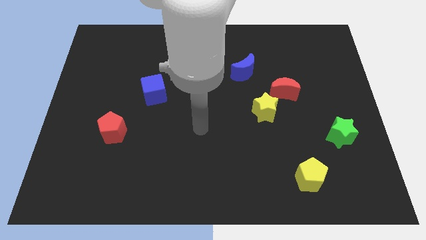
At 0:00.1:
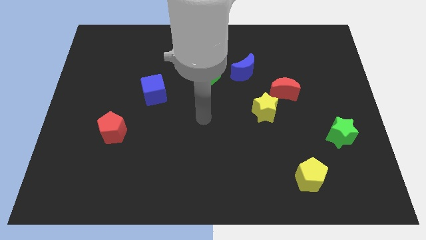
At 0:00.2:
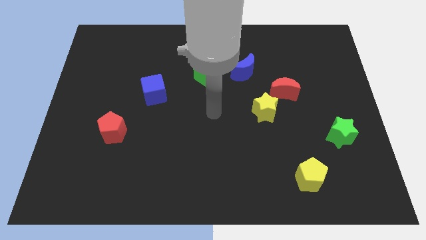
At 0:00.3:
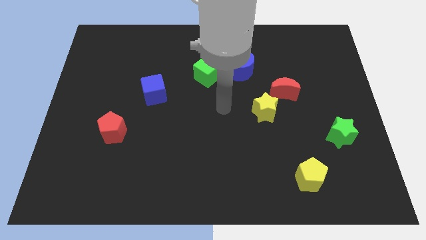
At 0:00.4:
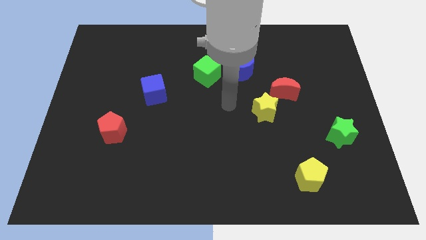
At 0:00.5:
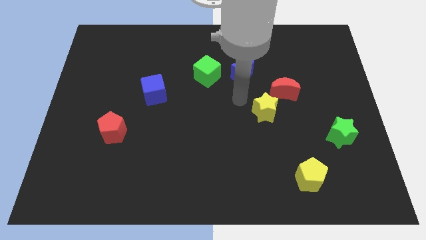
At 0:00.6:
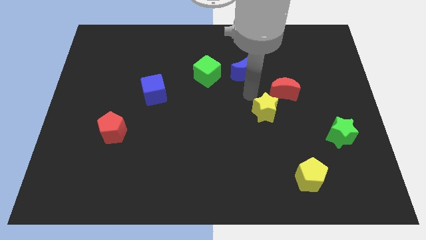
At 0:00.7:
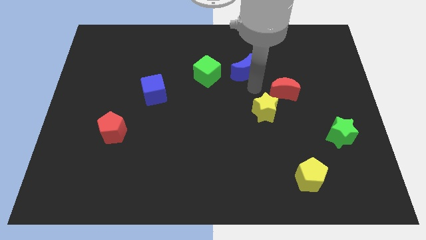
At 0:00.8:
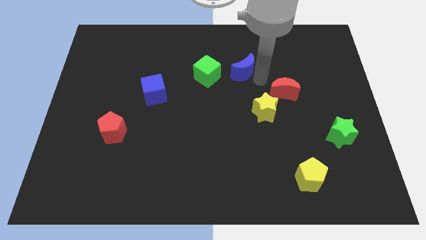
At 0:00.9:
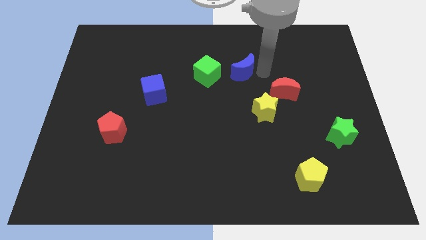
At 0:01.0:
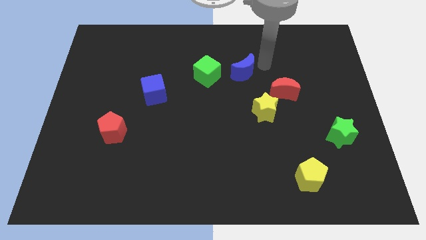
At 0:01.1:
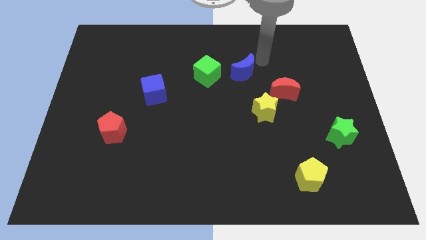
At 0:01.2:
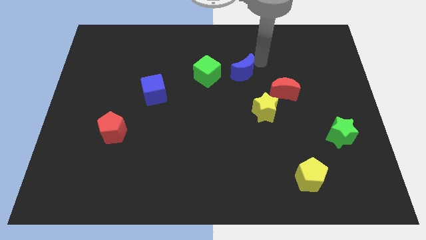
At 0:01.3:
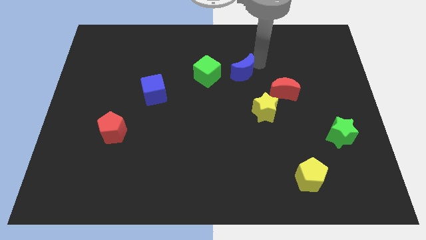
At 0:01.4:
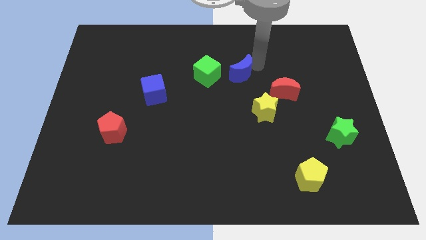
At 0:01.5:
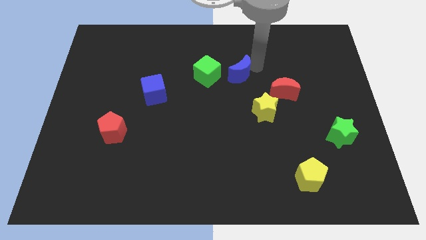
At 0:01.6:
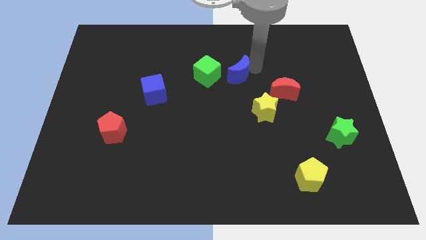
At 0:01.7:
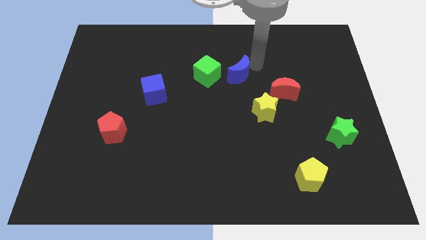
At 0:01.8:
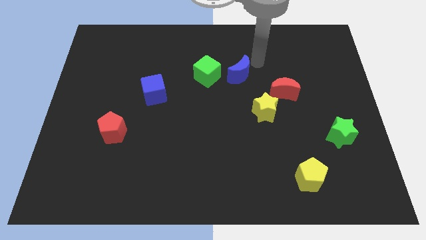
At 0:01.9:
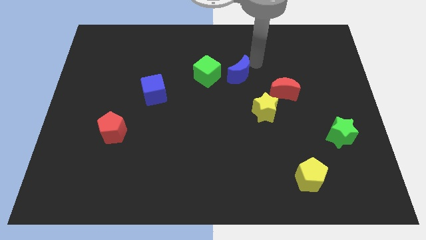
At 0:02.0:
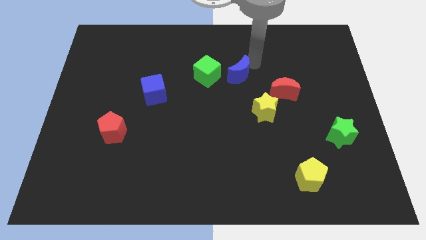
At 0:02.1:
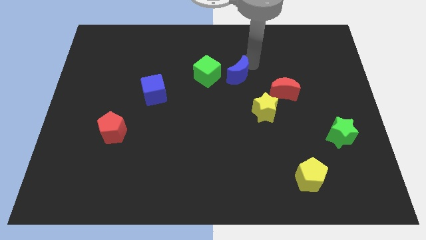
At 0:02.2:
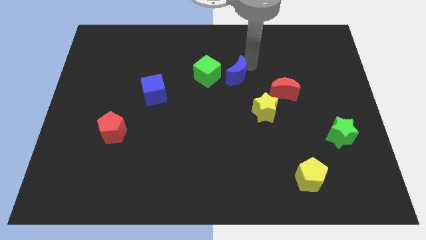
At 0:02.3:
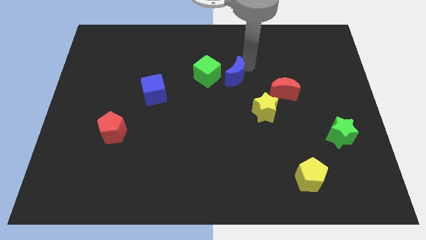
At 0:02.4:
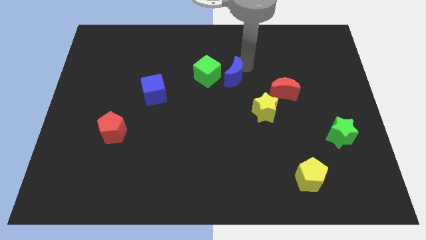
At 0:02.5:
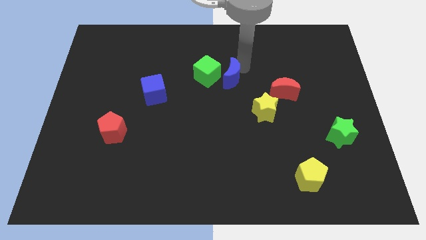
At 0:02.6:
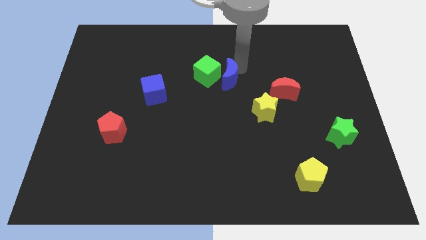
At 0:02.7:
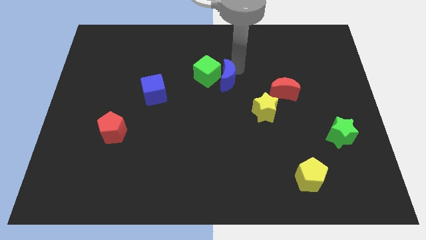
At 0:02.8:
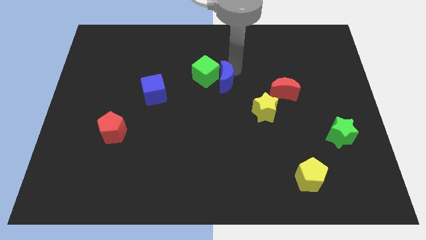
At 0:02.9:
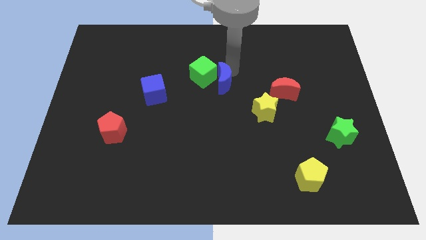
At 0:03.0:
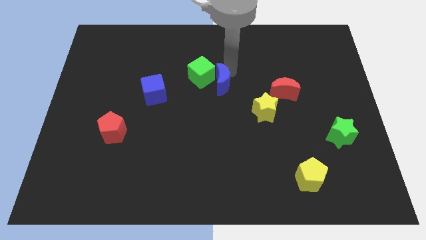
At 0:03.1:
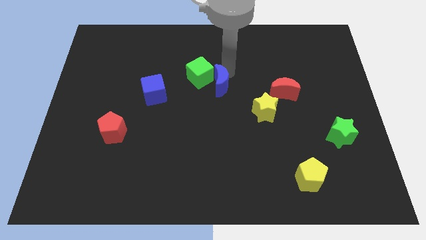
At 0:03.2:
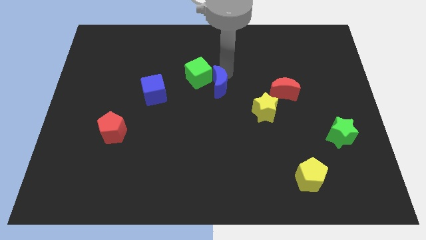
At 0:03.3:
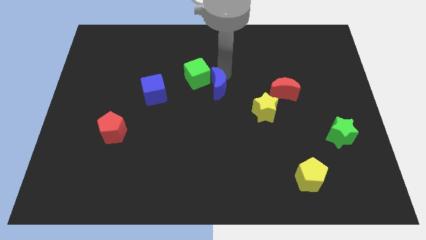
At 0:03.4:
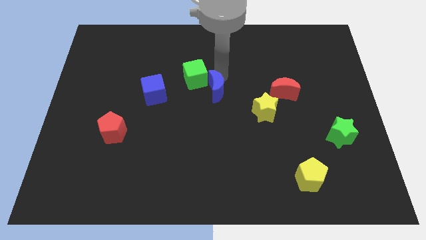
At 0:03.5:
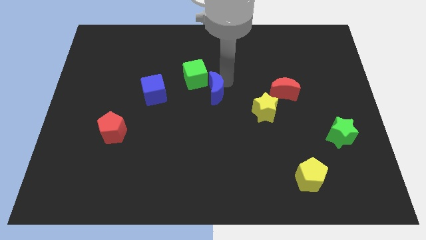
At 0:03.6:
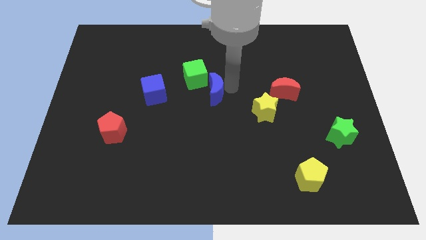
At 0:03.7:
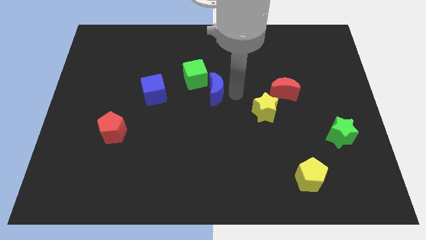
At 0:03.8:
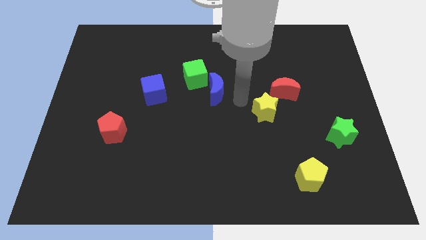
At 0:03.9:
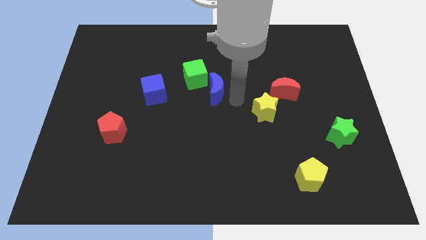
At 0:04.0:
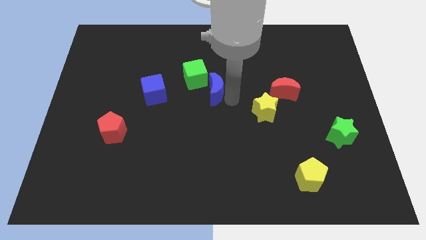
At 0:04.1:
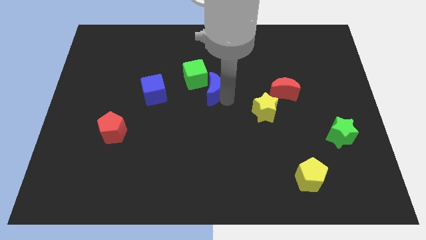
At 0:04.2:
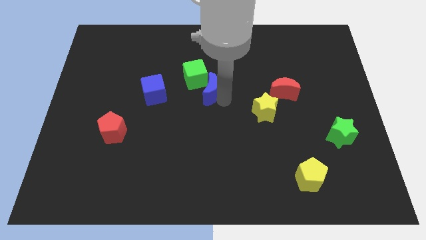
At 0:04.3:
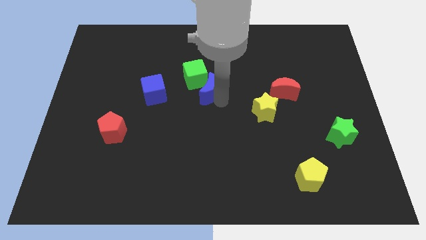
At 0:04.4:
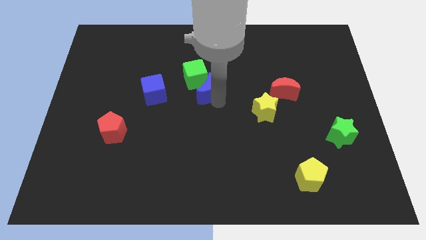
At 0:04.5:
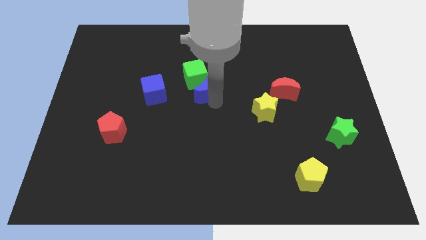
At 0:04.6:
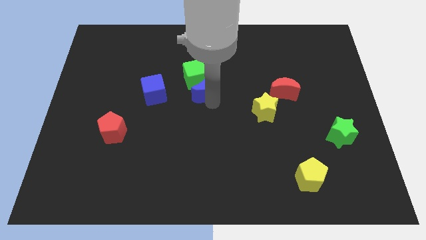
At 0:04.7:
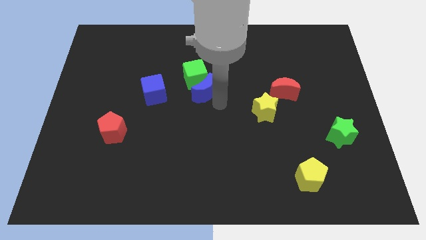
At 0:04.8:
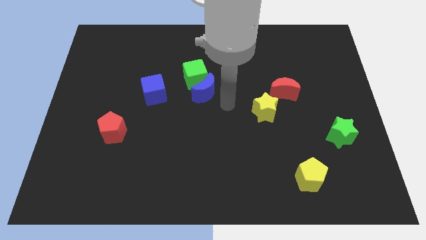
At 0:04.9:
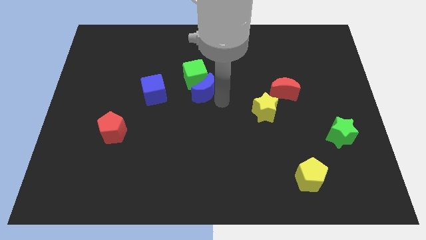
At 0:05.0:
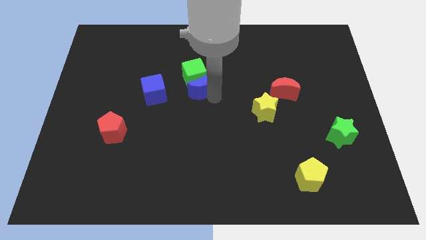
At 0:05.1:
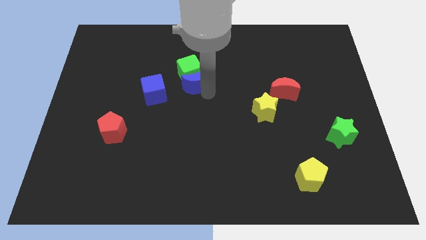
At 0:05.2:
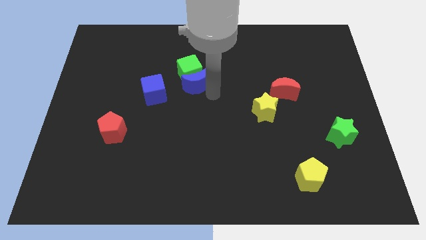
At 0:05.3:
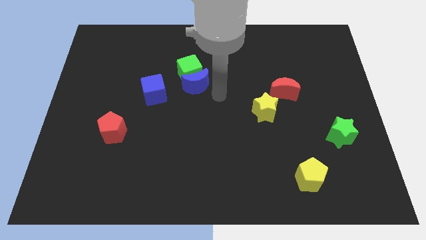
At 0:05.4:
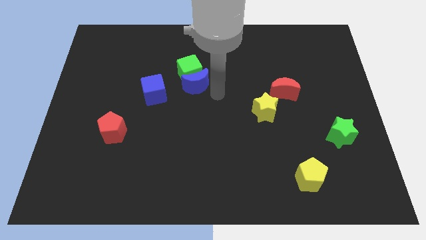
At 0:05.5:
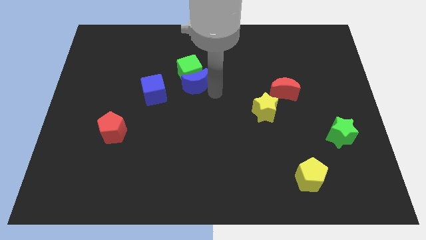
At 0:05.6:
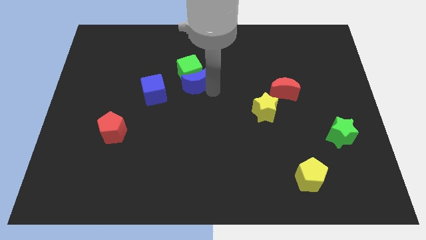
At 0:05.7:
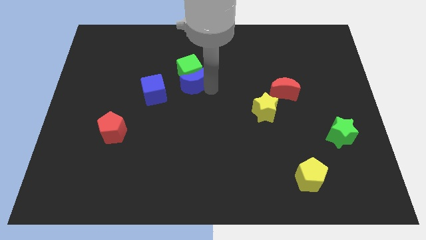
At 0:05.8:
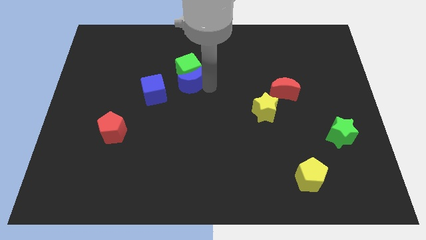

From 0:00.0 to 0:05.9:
push the blue moon diagonally up and to the right of the blue cube

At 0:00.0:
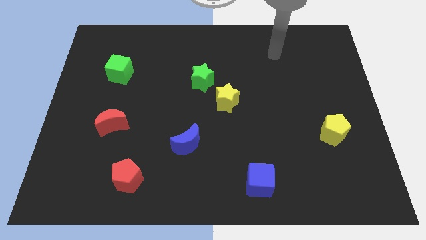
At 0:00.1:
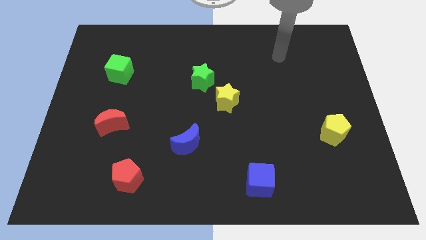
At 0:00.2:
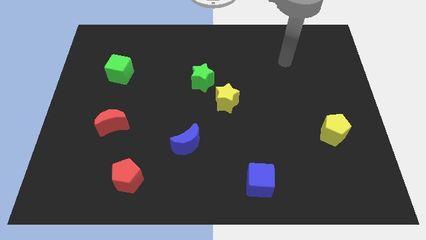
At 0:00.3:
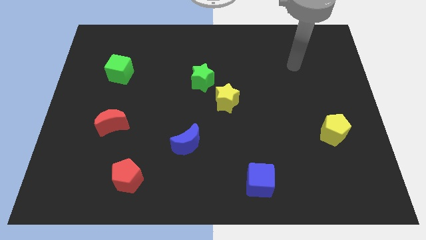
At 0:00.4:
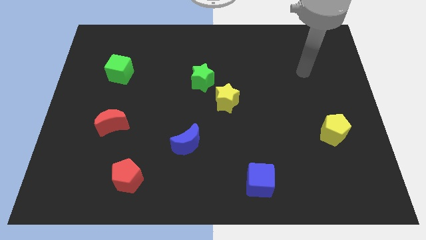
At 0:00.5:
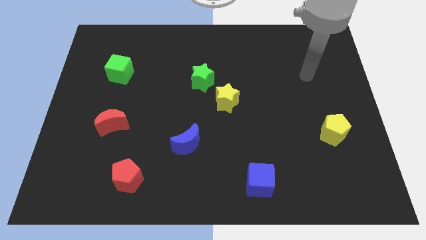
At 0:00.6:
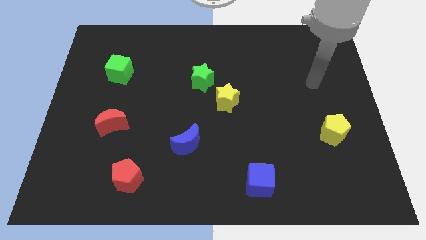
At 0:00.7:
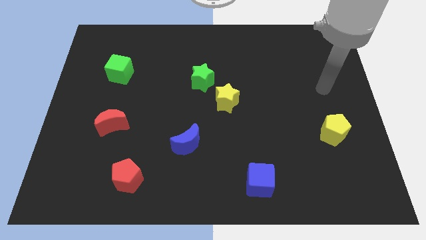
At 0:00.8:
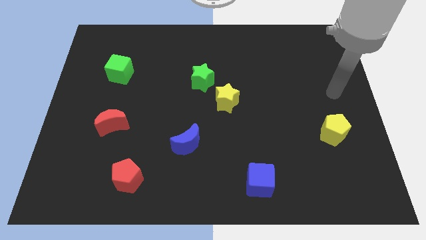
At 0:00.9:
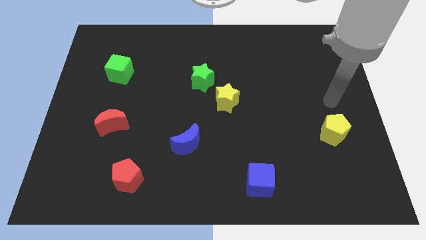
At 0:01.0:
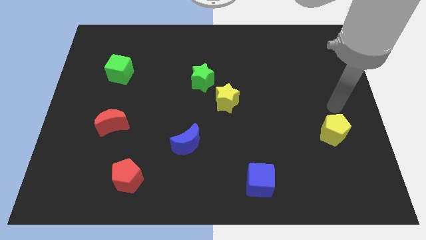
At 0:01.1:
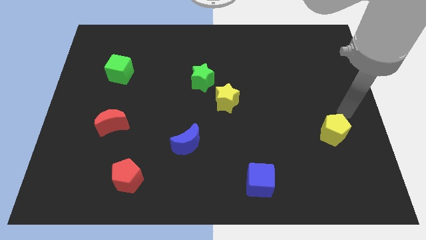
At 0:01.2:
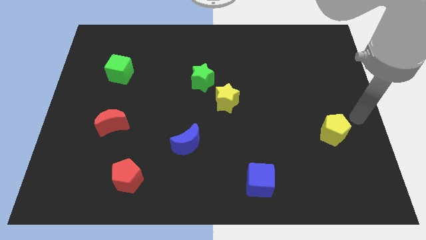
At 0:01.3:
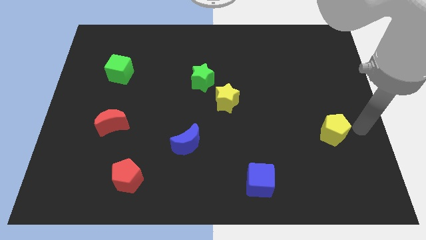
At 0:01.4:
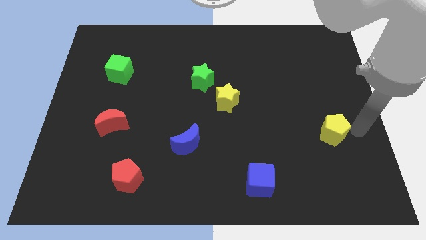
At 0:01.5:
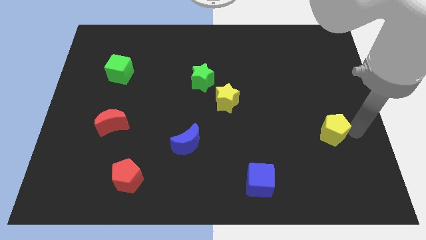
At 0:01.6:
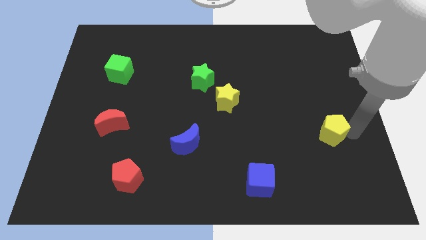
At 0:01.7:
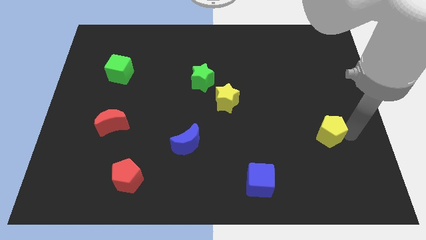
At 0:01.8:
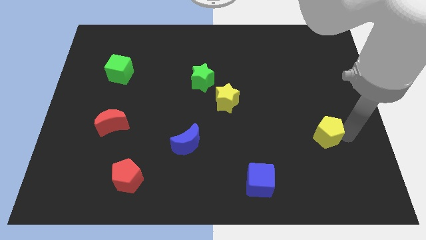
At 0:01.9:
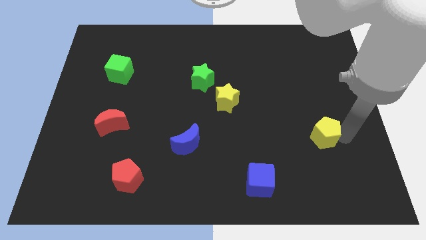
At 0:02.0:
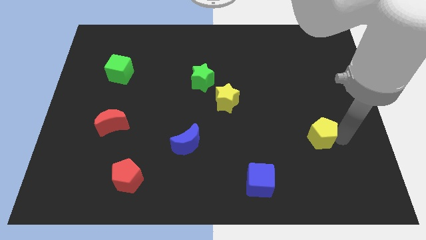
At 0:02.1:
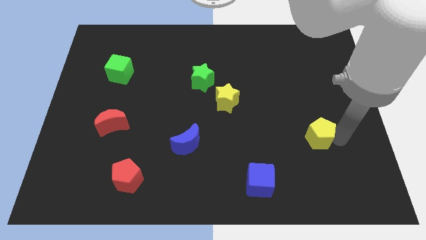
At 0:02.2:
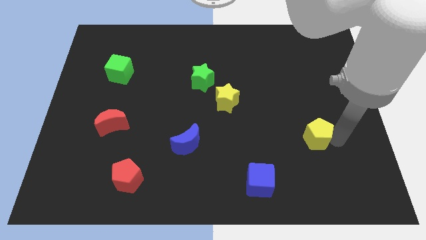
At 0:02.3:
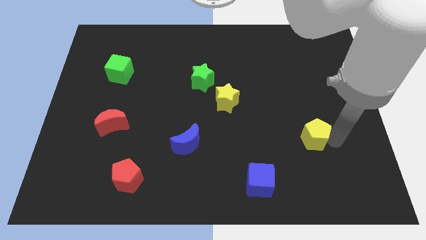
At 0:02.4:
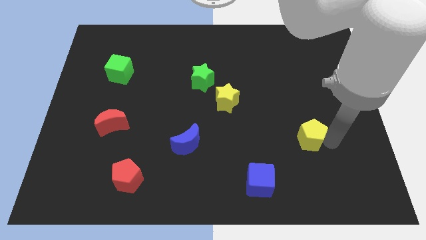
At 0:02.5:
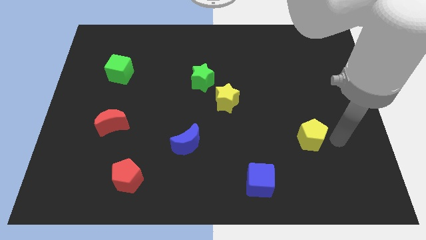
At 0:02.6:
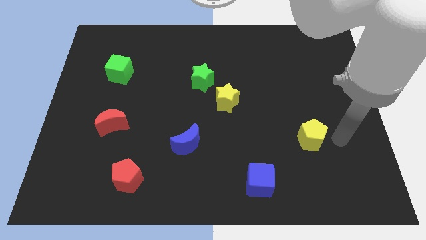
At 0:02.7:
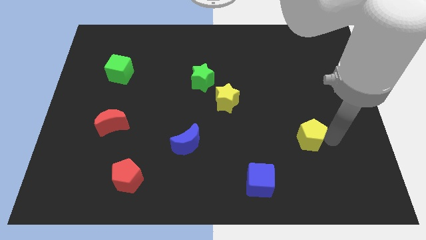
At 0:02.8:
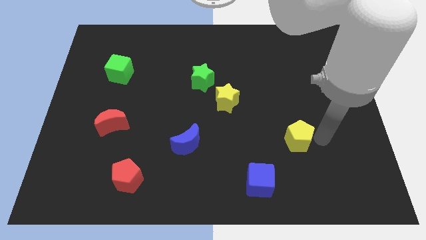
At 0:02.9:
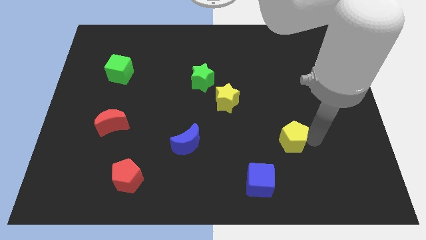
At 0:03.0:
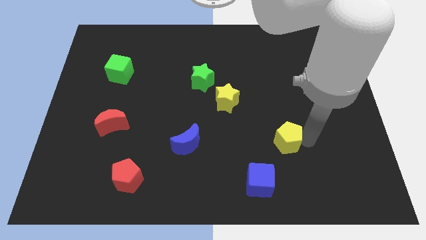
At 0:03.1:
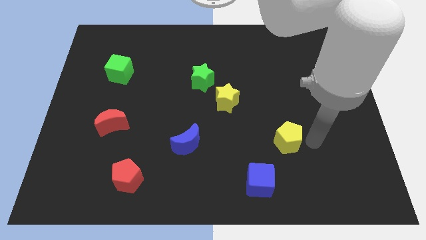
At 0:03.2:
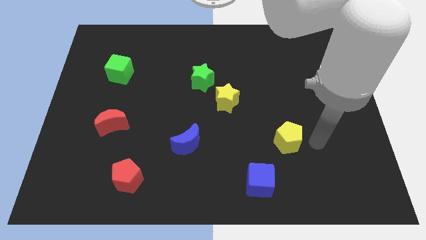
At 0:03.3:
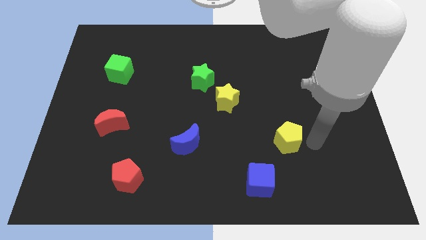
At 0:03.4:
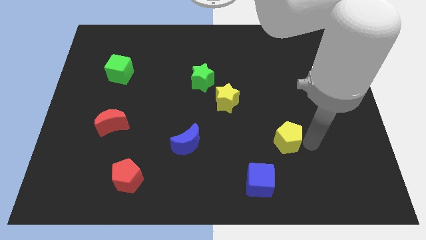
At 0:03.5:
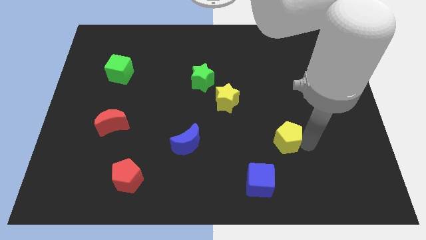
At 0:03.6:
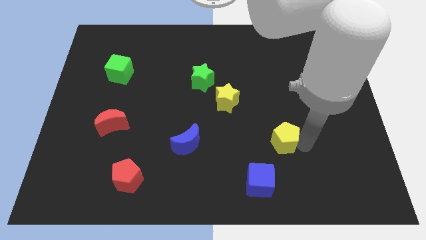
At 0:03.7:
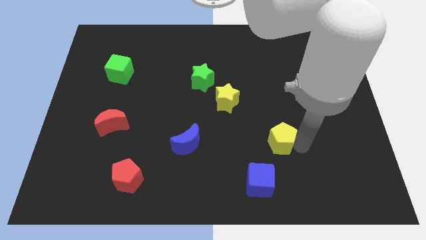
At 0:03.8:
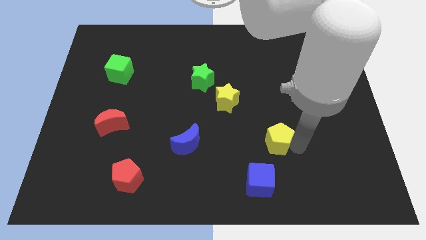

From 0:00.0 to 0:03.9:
slide the yellow pentagon to the top of the blue cube
